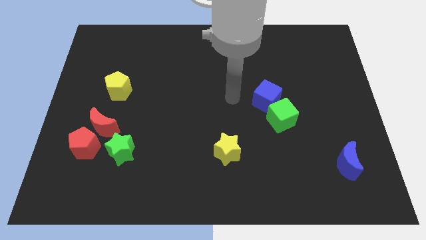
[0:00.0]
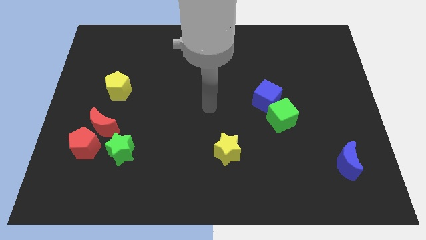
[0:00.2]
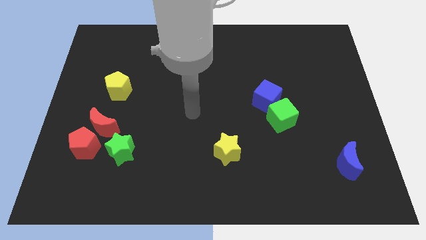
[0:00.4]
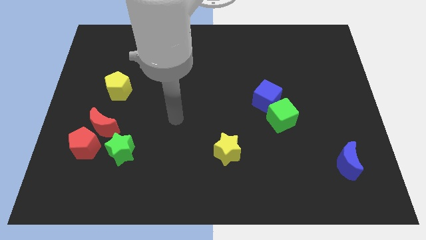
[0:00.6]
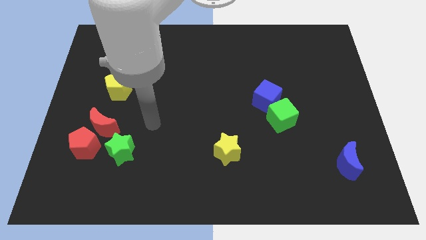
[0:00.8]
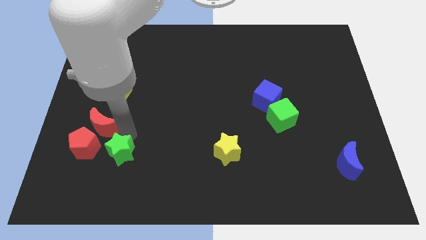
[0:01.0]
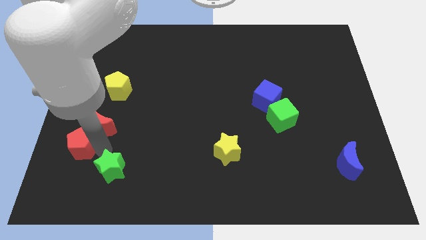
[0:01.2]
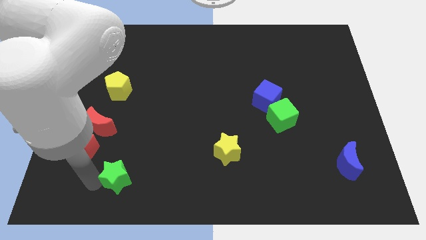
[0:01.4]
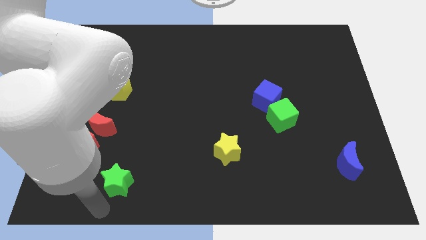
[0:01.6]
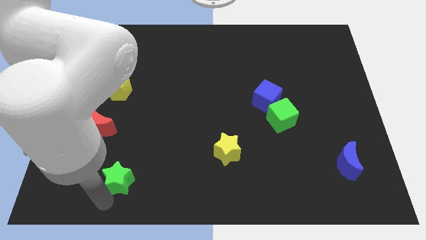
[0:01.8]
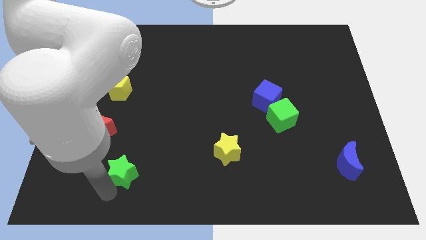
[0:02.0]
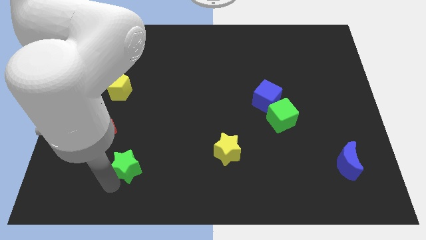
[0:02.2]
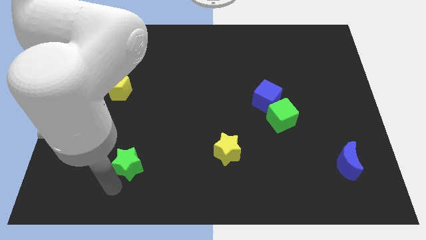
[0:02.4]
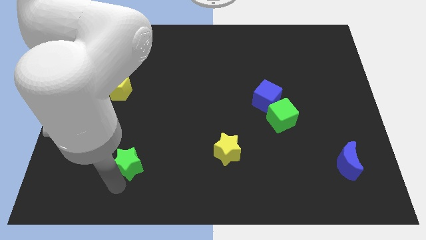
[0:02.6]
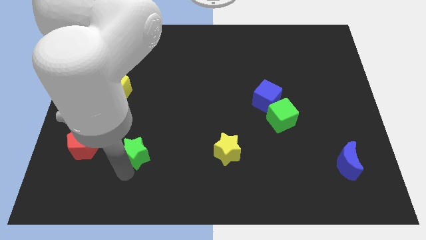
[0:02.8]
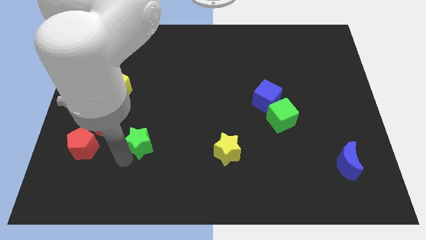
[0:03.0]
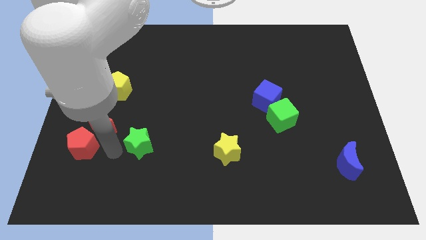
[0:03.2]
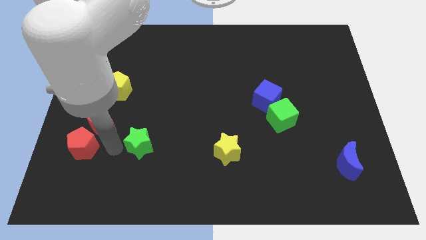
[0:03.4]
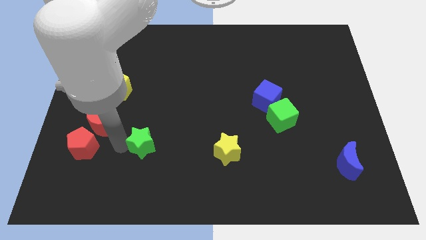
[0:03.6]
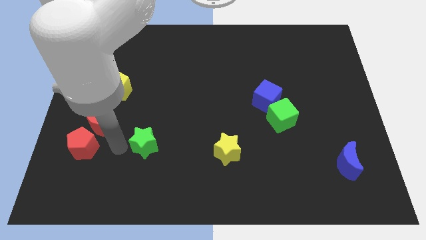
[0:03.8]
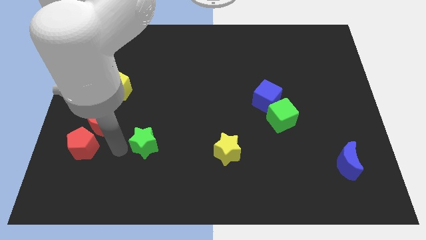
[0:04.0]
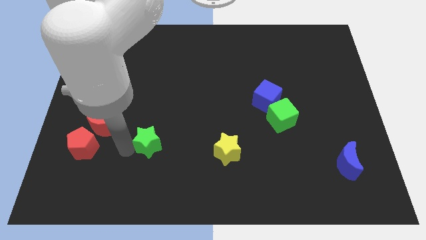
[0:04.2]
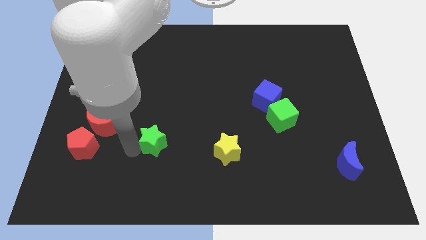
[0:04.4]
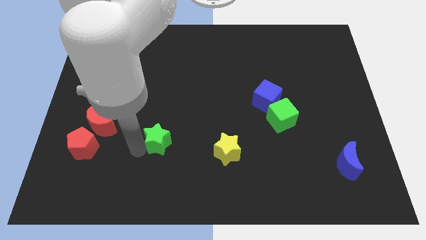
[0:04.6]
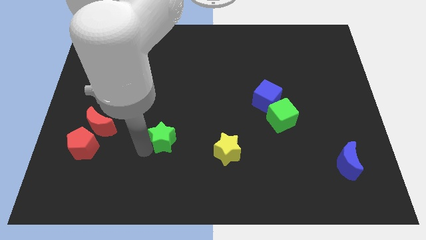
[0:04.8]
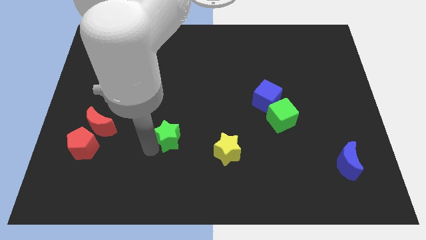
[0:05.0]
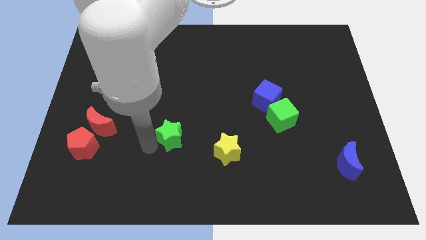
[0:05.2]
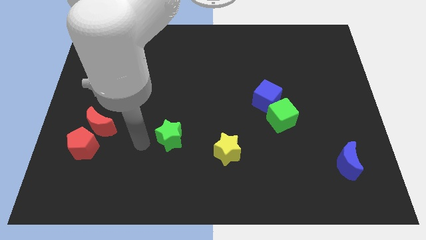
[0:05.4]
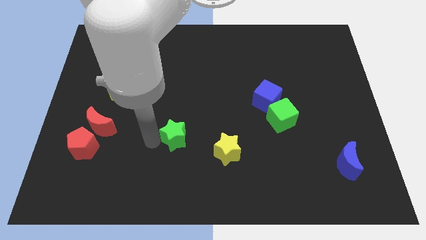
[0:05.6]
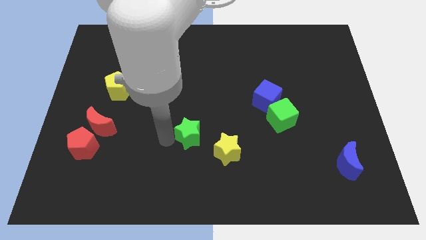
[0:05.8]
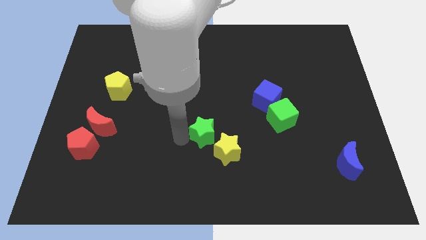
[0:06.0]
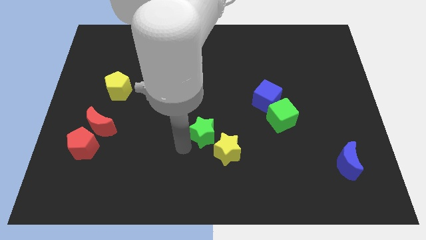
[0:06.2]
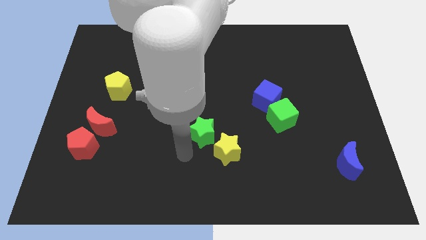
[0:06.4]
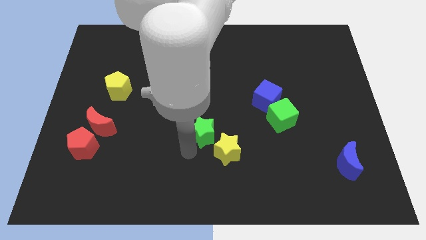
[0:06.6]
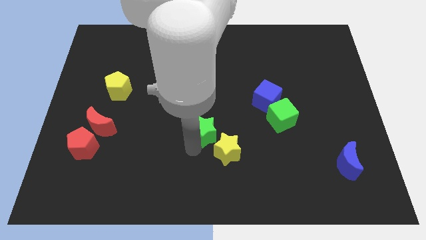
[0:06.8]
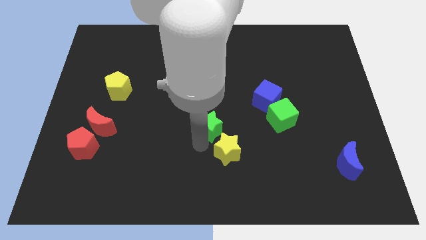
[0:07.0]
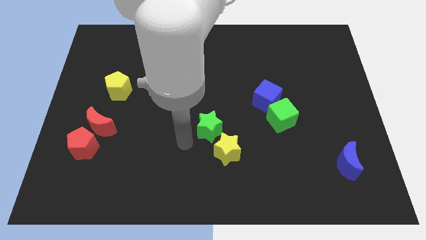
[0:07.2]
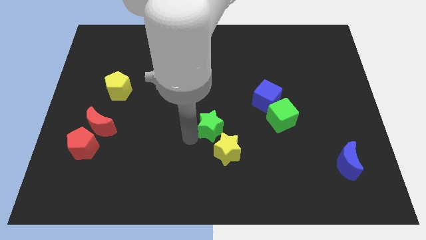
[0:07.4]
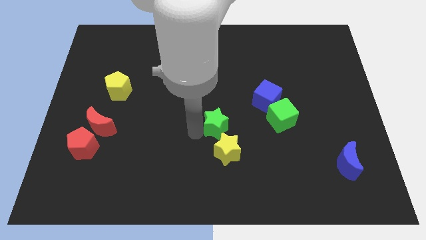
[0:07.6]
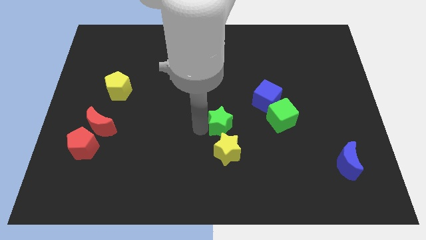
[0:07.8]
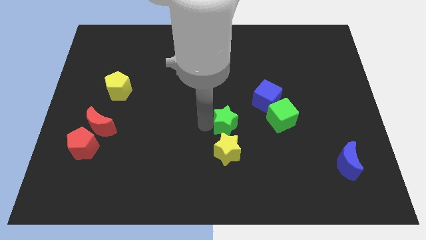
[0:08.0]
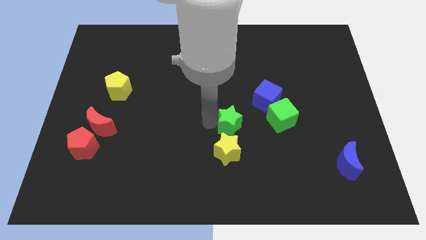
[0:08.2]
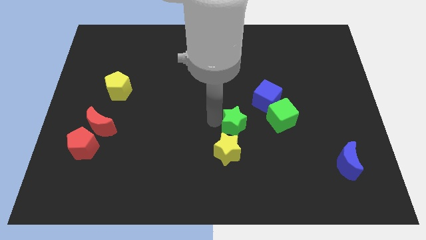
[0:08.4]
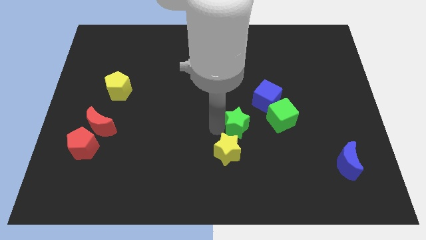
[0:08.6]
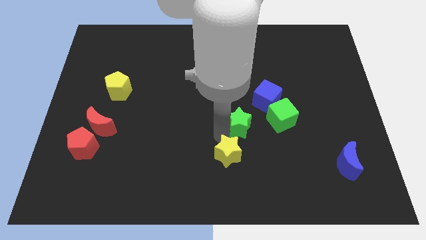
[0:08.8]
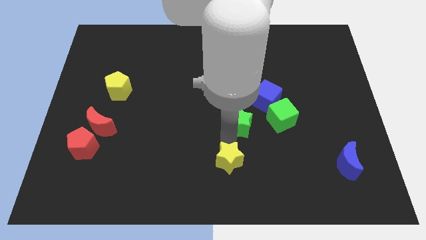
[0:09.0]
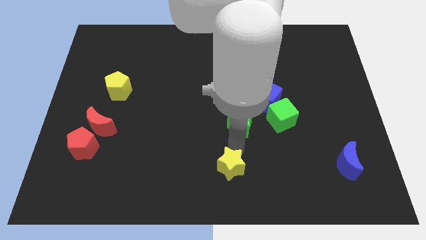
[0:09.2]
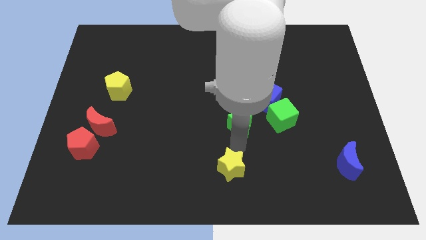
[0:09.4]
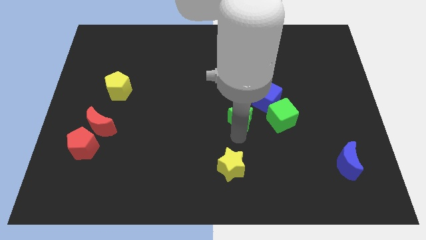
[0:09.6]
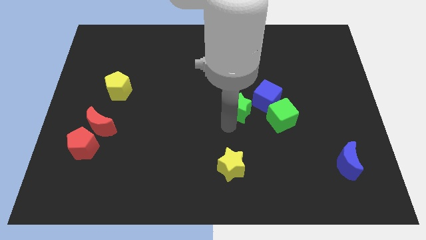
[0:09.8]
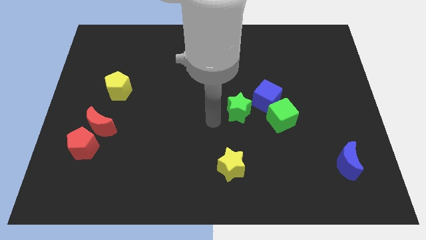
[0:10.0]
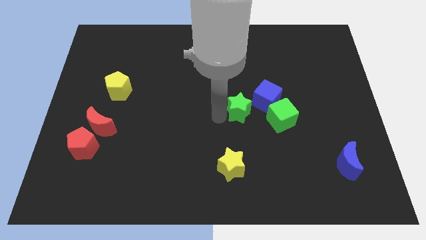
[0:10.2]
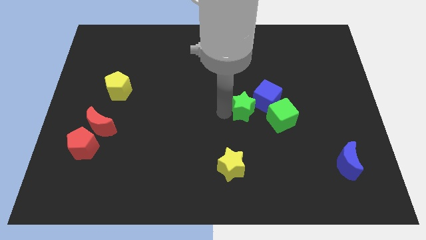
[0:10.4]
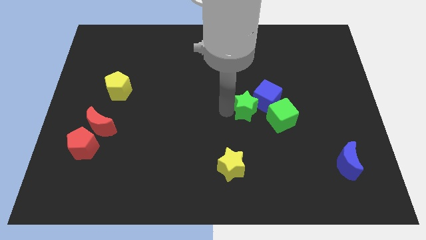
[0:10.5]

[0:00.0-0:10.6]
move the green star next to the blue cube

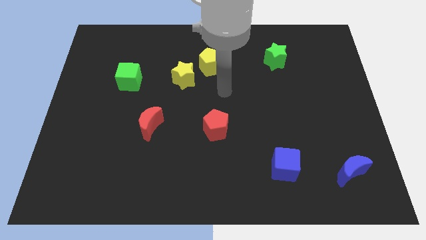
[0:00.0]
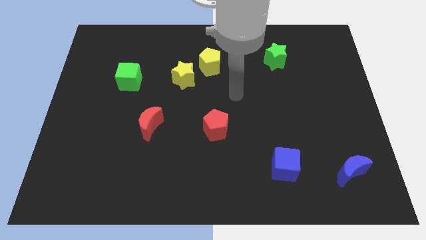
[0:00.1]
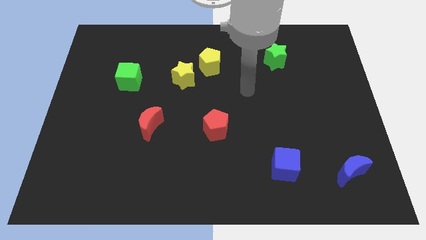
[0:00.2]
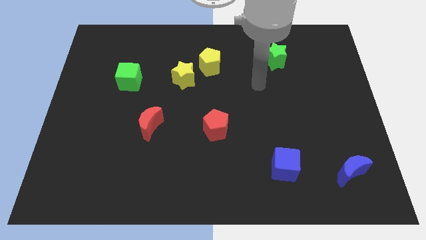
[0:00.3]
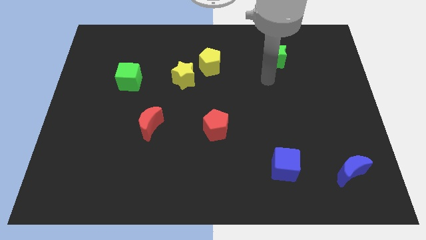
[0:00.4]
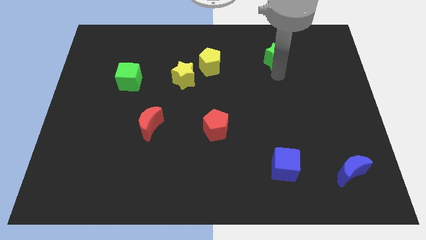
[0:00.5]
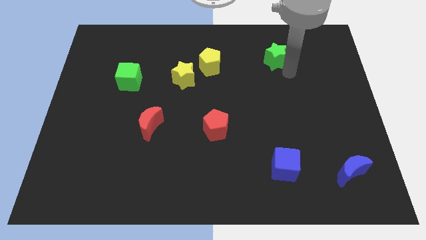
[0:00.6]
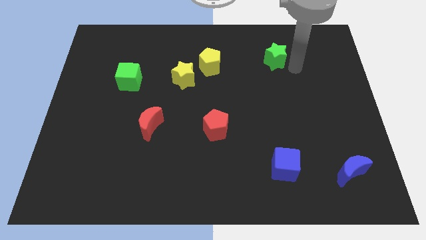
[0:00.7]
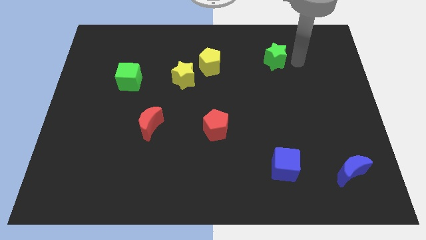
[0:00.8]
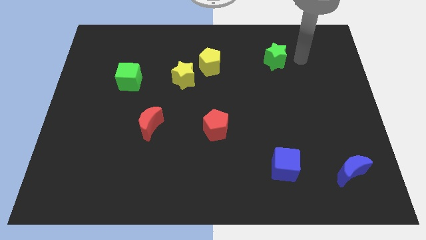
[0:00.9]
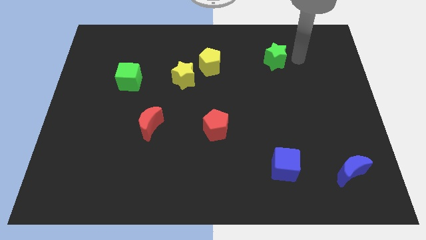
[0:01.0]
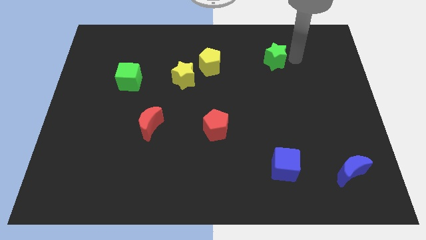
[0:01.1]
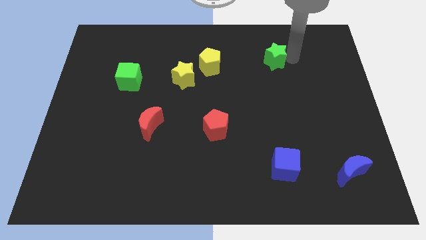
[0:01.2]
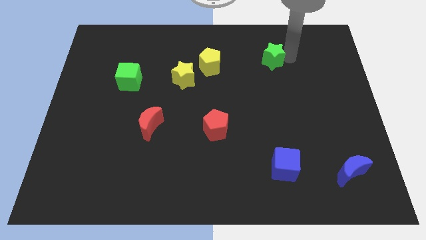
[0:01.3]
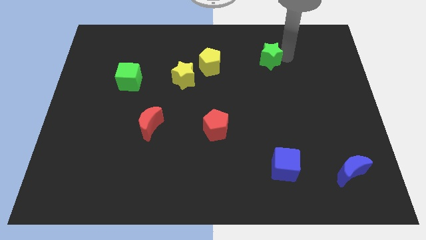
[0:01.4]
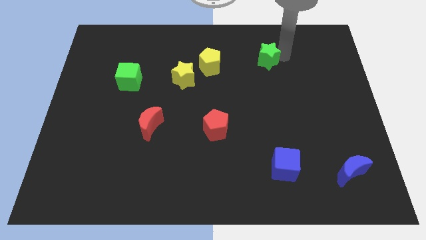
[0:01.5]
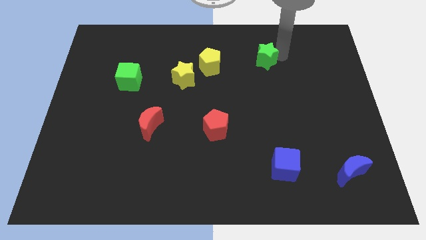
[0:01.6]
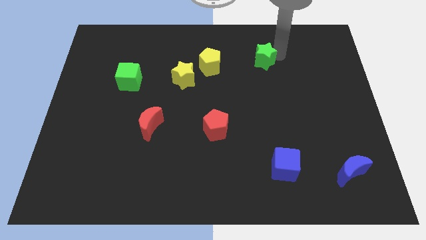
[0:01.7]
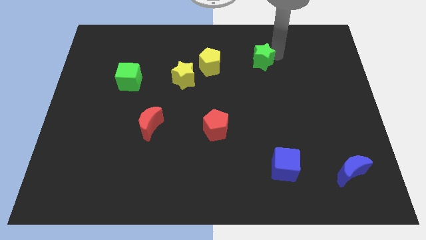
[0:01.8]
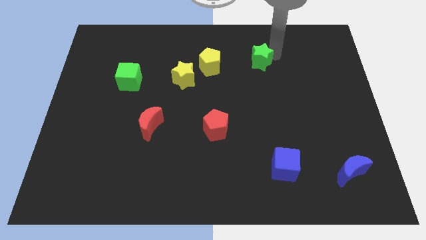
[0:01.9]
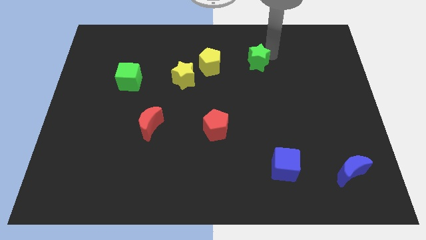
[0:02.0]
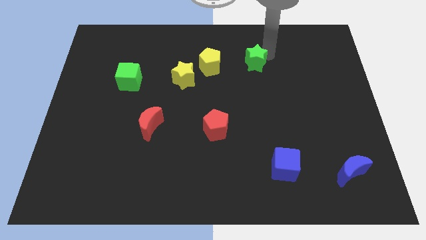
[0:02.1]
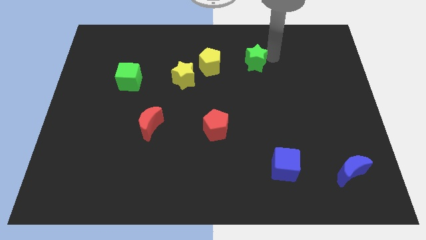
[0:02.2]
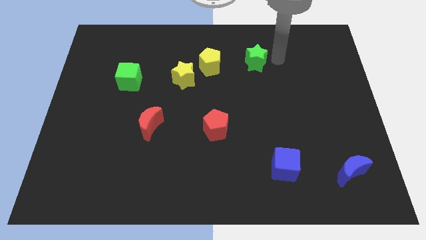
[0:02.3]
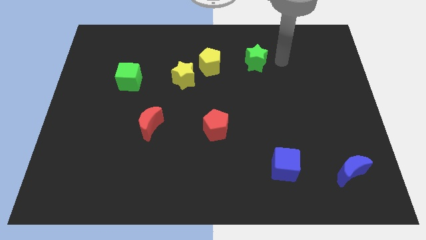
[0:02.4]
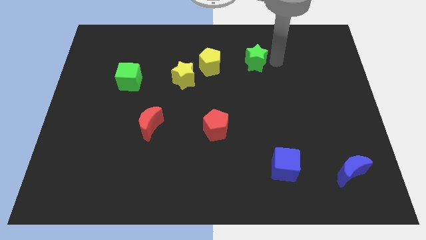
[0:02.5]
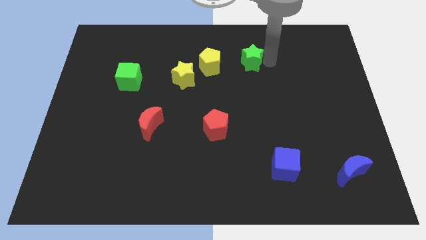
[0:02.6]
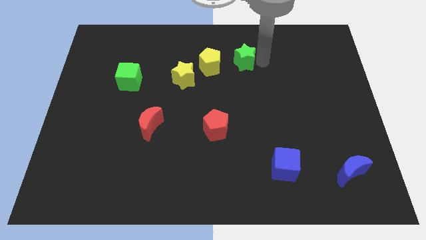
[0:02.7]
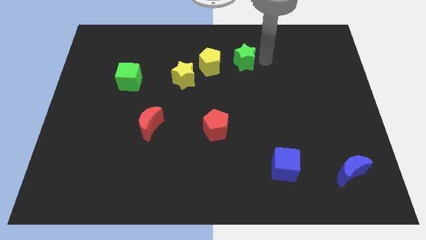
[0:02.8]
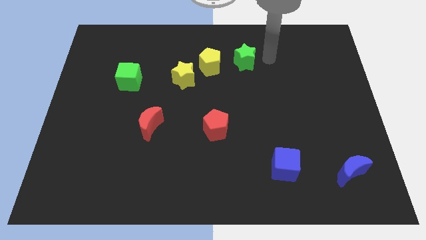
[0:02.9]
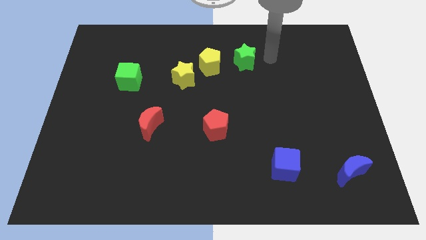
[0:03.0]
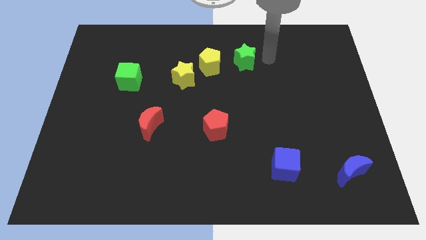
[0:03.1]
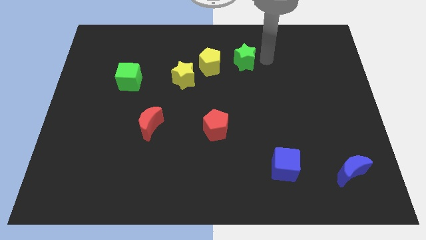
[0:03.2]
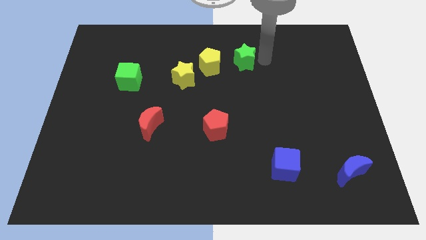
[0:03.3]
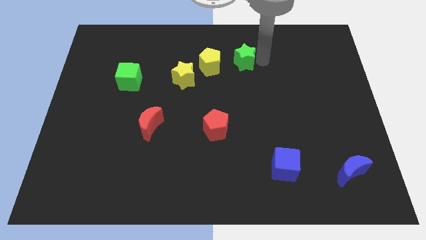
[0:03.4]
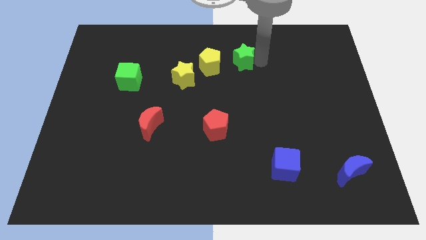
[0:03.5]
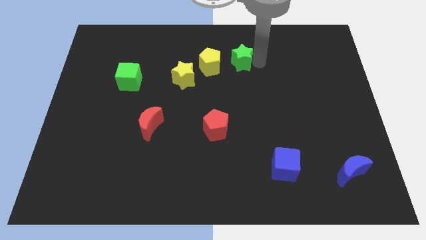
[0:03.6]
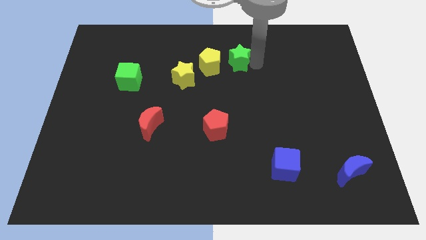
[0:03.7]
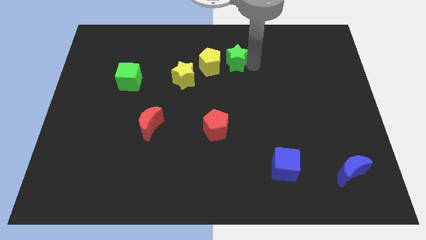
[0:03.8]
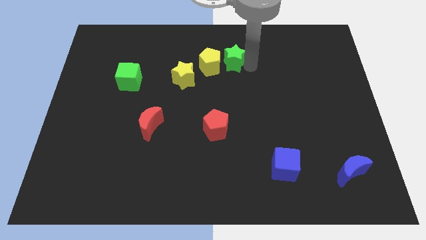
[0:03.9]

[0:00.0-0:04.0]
move the green star towards the yellow pentagon
